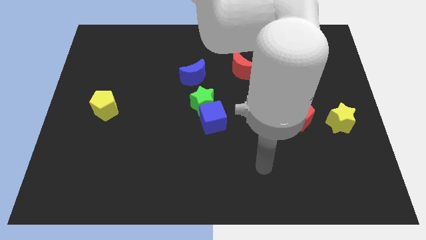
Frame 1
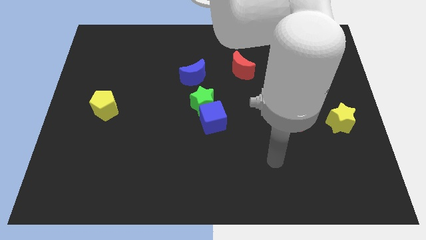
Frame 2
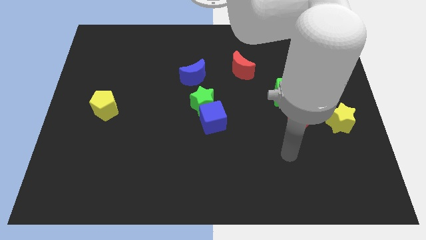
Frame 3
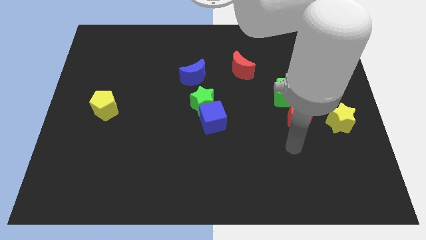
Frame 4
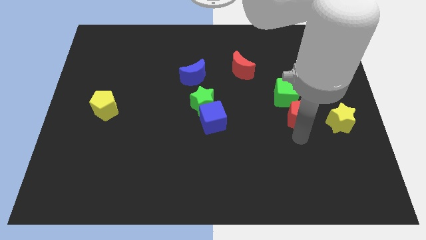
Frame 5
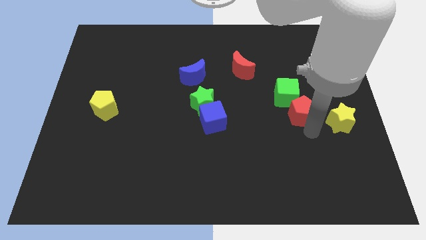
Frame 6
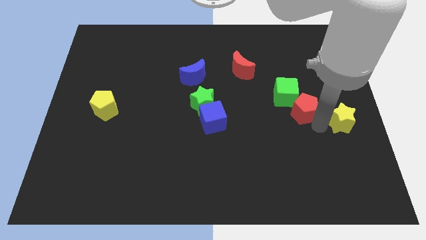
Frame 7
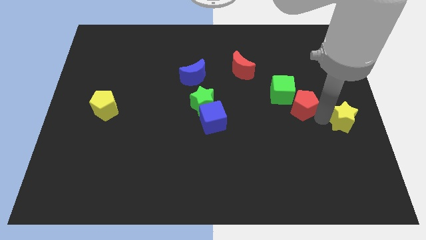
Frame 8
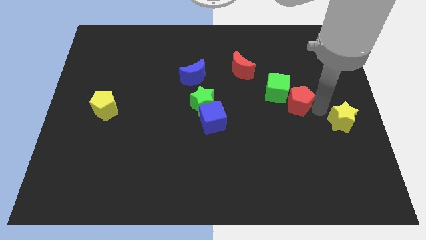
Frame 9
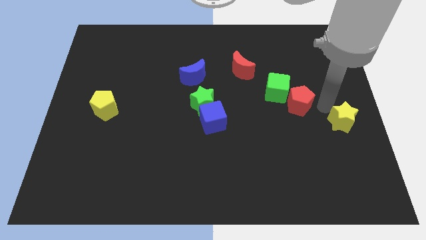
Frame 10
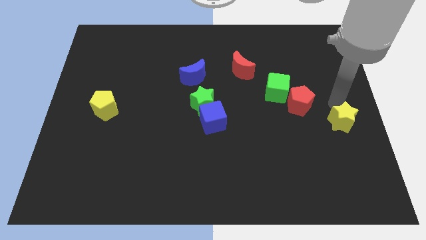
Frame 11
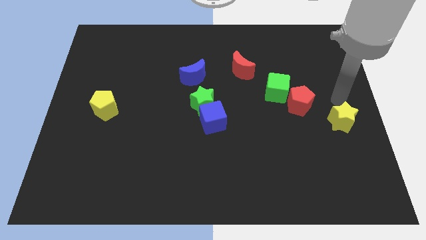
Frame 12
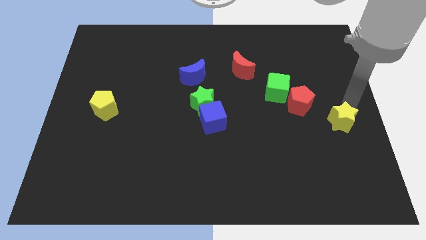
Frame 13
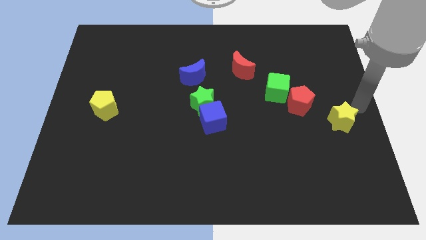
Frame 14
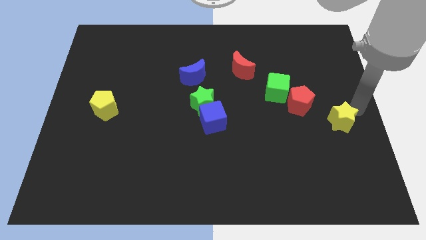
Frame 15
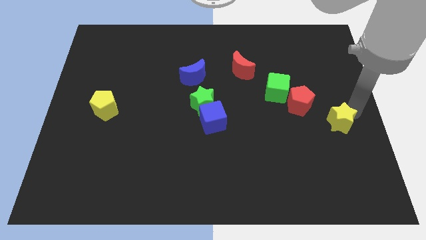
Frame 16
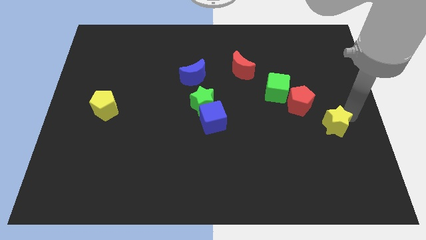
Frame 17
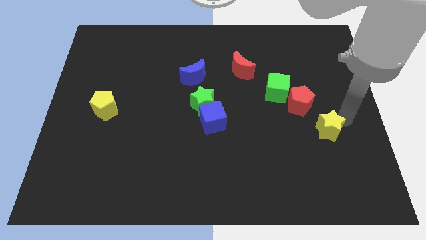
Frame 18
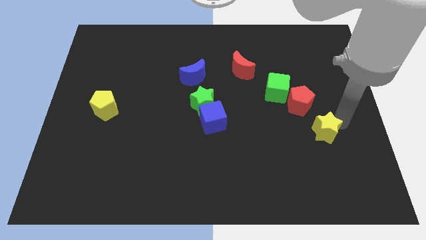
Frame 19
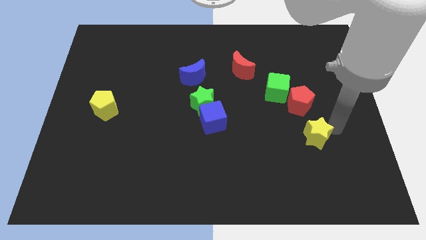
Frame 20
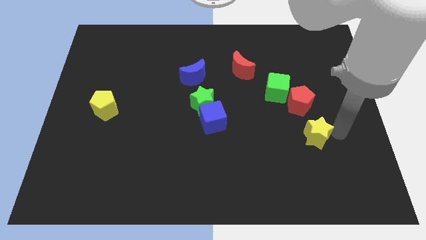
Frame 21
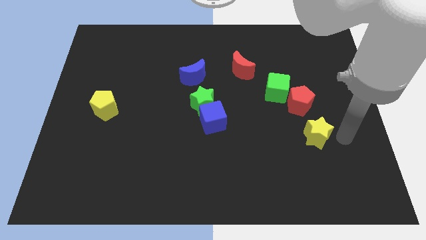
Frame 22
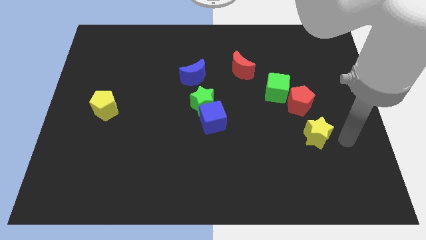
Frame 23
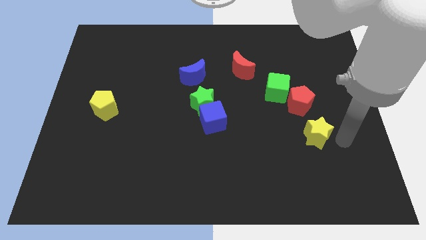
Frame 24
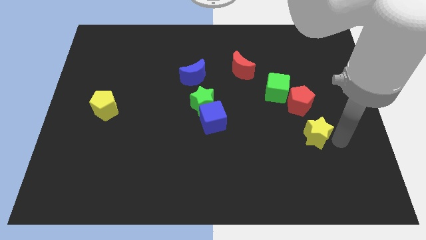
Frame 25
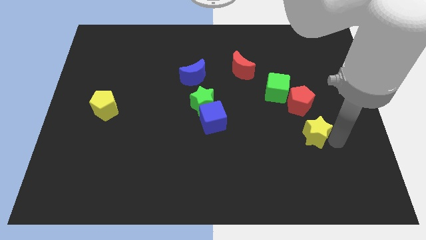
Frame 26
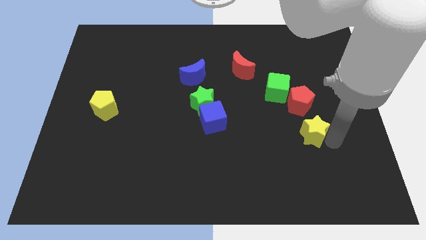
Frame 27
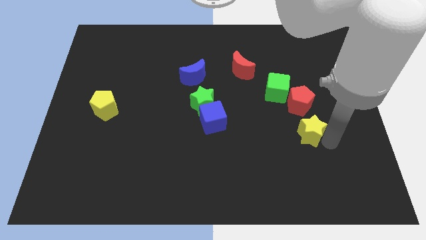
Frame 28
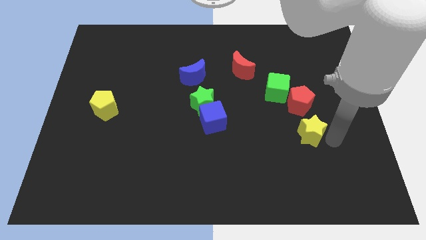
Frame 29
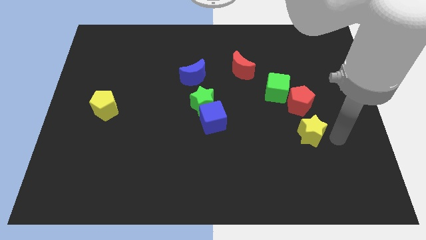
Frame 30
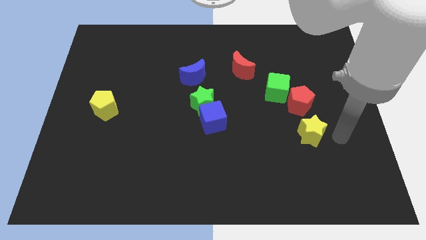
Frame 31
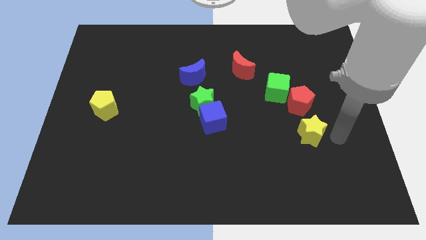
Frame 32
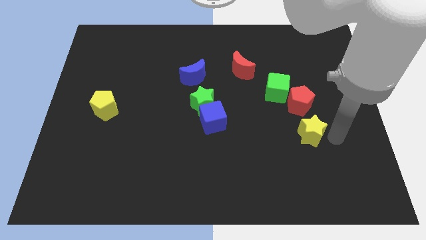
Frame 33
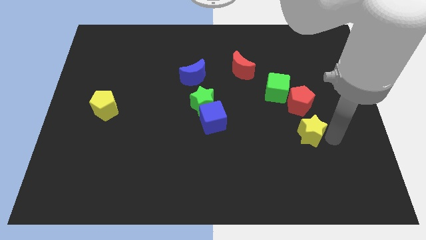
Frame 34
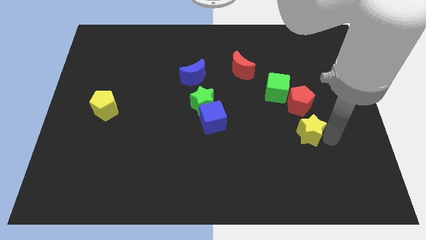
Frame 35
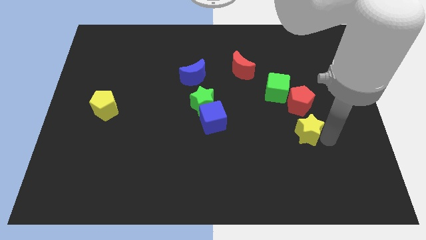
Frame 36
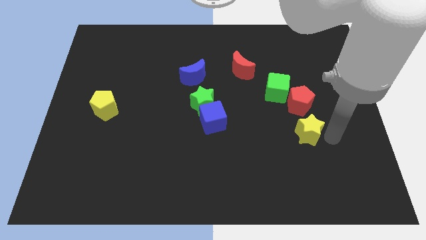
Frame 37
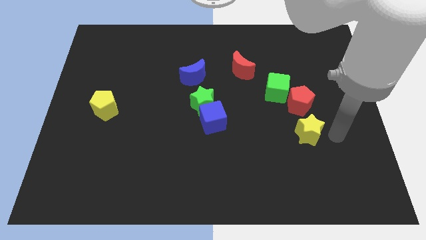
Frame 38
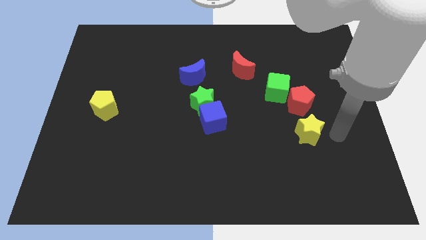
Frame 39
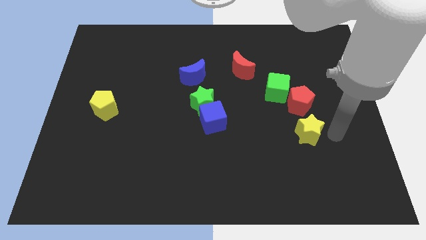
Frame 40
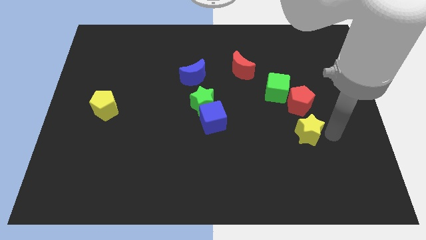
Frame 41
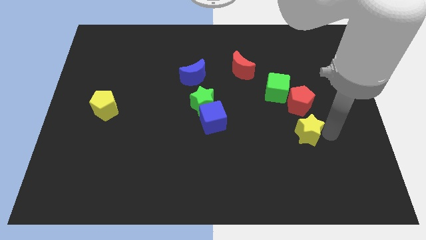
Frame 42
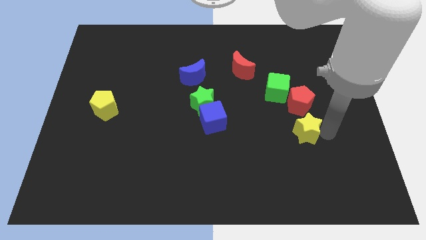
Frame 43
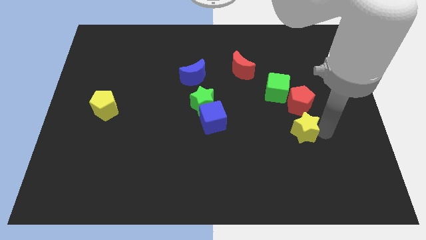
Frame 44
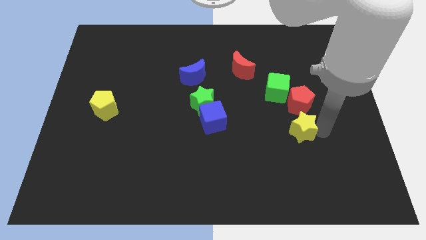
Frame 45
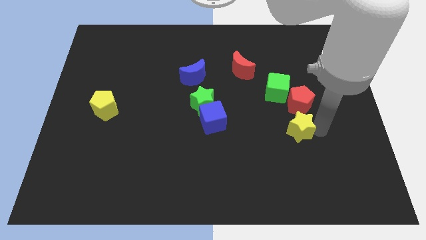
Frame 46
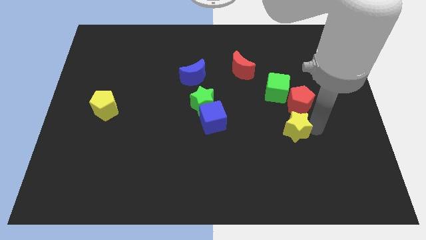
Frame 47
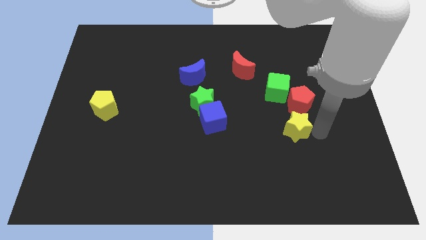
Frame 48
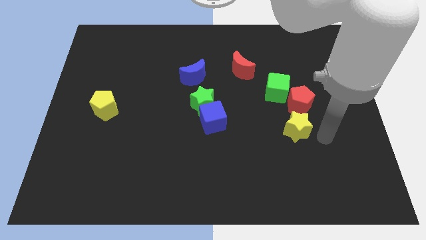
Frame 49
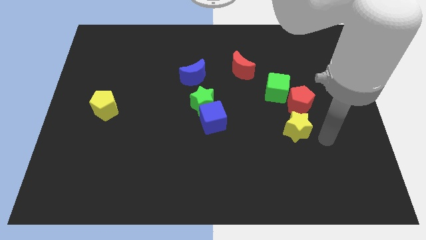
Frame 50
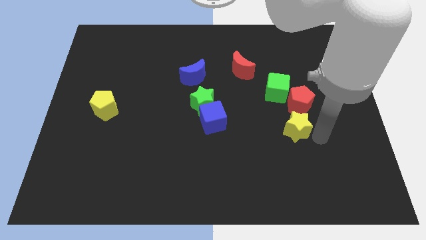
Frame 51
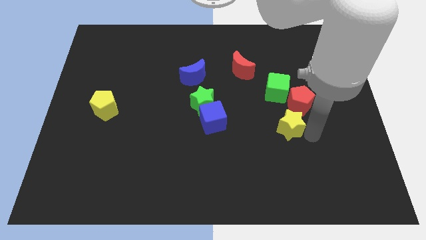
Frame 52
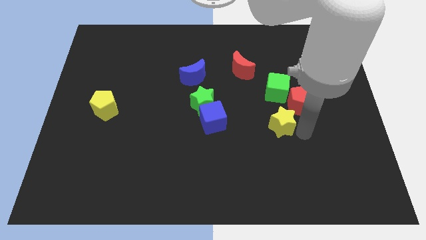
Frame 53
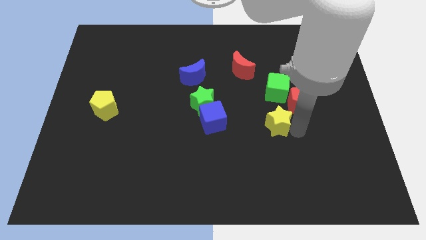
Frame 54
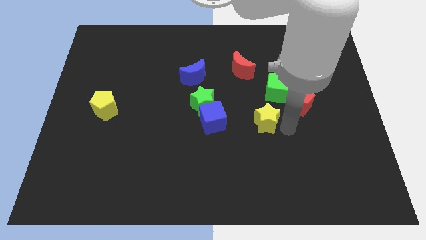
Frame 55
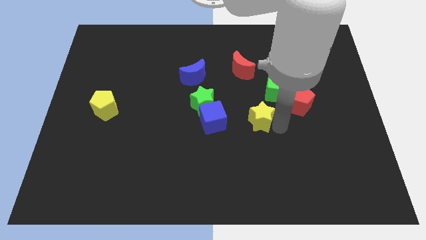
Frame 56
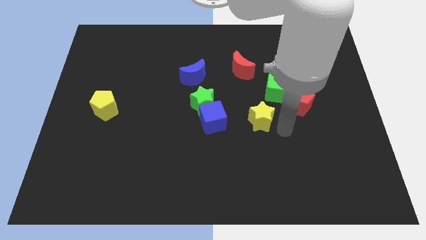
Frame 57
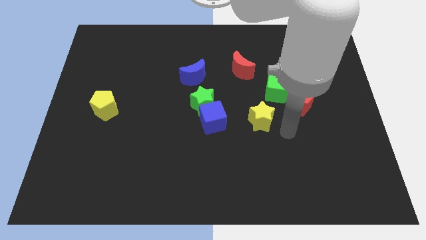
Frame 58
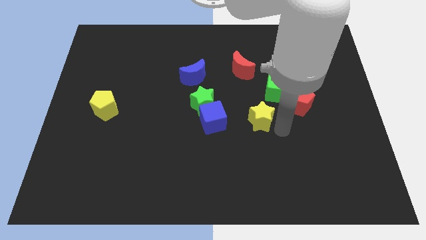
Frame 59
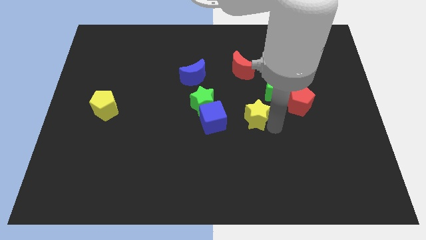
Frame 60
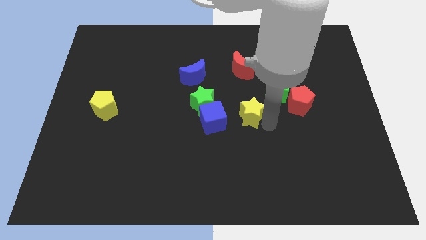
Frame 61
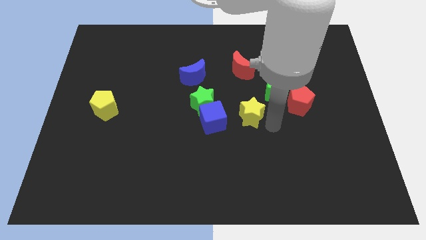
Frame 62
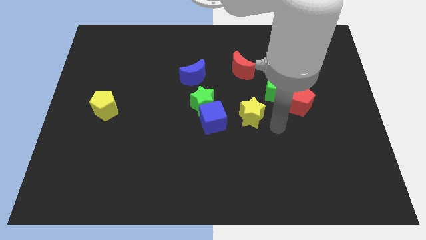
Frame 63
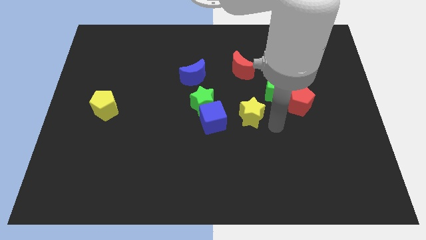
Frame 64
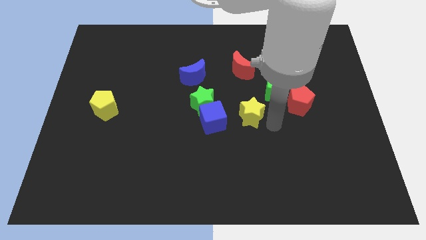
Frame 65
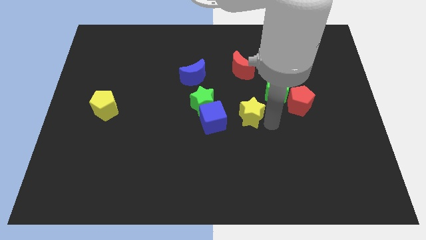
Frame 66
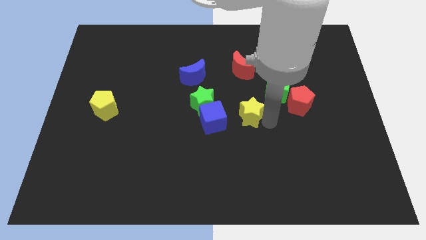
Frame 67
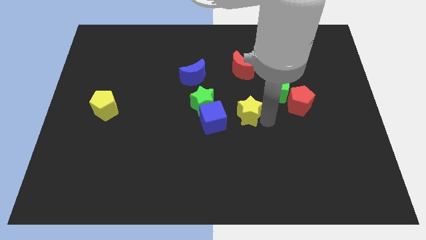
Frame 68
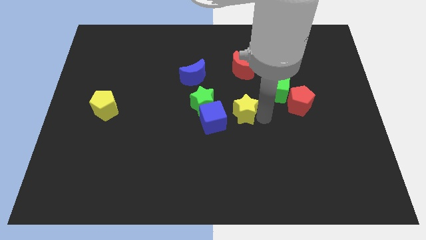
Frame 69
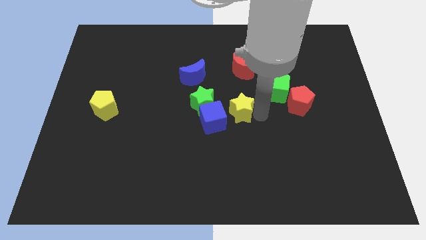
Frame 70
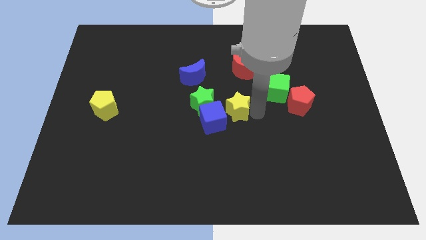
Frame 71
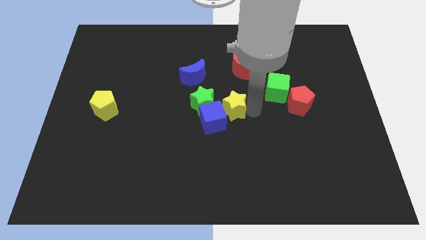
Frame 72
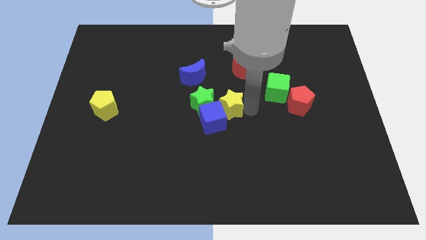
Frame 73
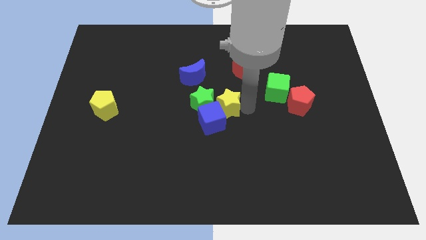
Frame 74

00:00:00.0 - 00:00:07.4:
put the yellow star to the green star
